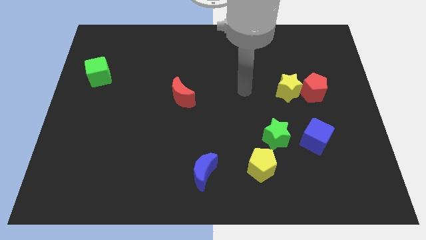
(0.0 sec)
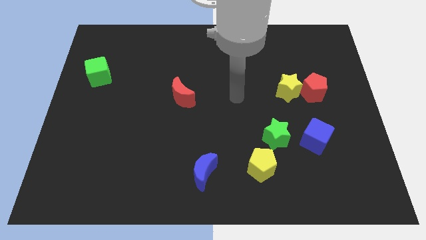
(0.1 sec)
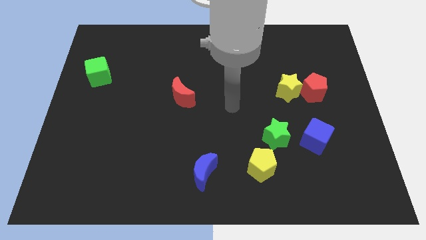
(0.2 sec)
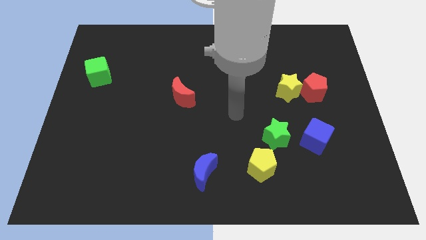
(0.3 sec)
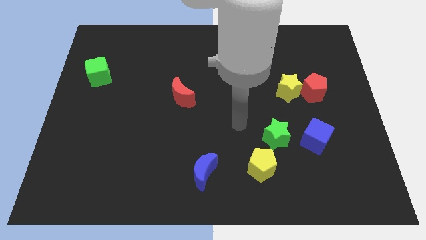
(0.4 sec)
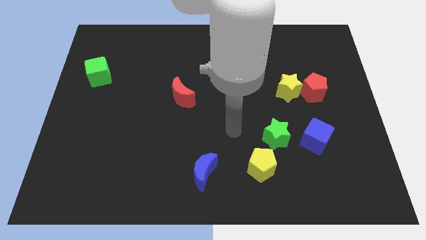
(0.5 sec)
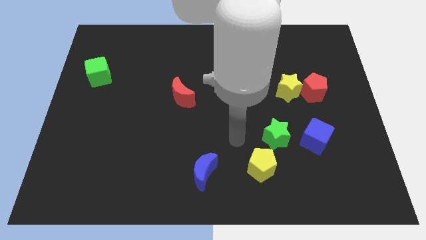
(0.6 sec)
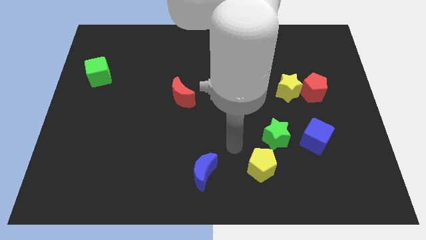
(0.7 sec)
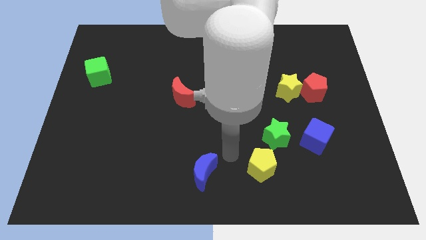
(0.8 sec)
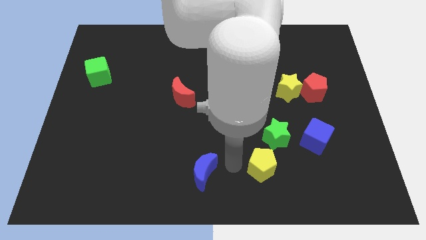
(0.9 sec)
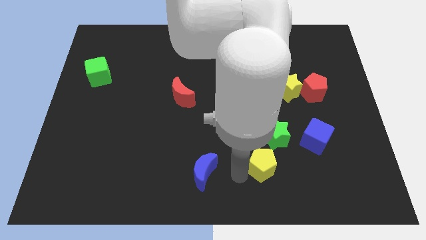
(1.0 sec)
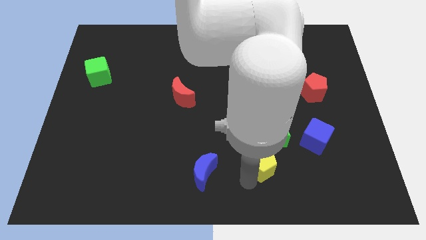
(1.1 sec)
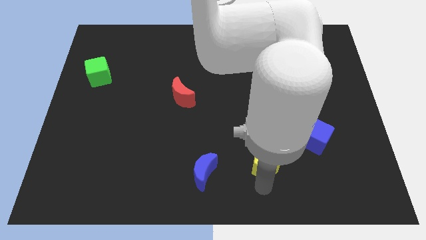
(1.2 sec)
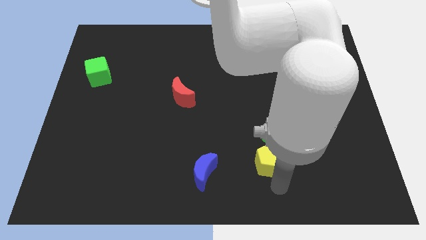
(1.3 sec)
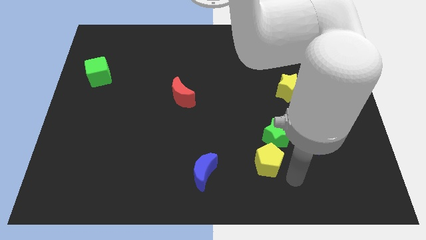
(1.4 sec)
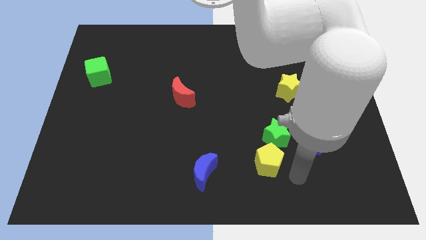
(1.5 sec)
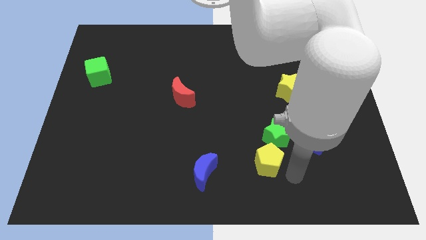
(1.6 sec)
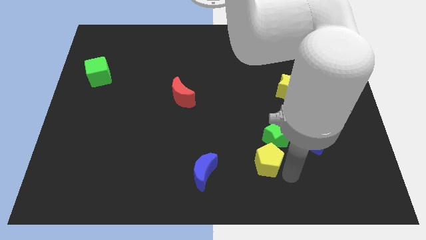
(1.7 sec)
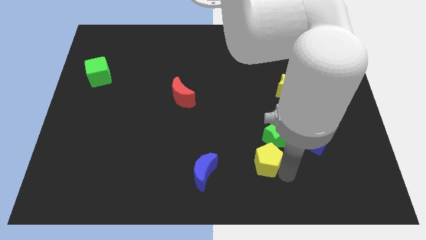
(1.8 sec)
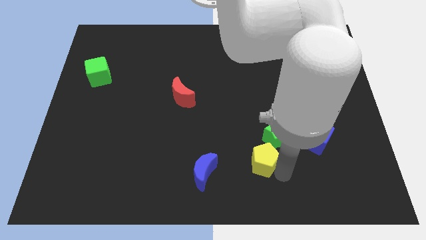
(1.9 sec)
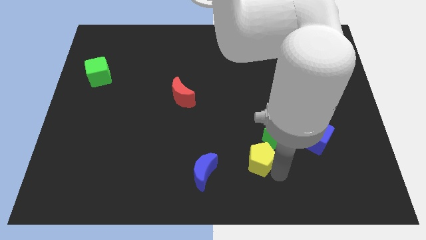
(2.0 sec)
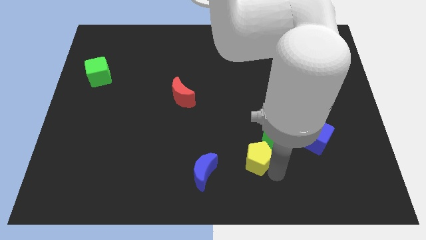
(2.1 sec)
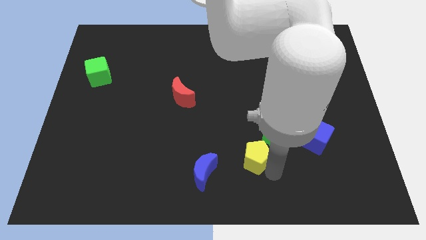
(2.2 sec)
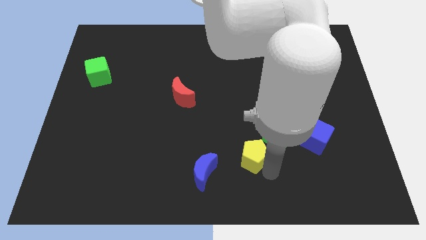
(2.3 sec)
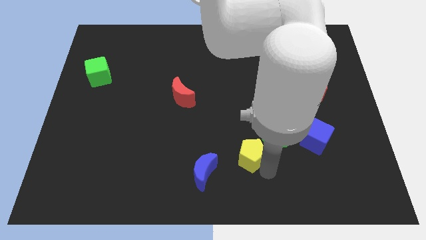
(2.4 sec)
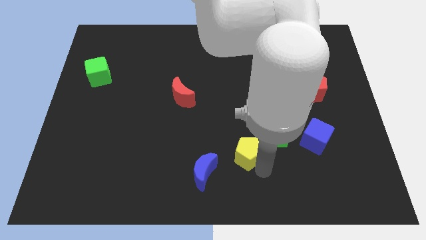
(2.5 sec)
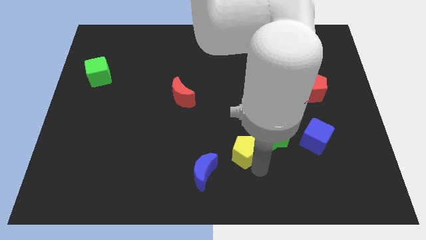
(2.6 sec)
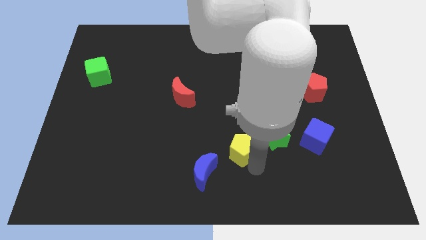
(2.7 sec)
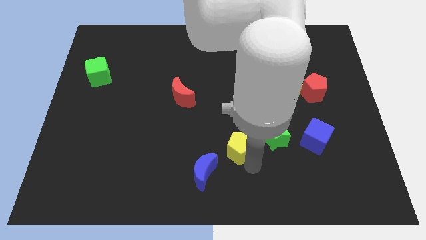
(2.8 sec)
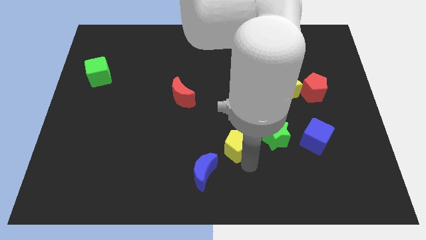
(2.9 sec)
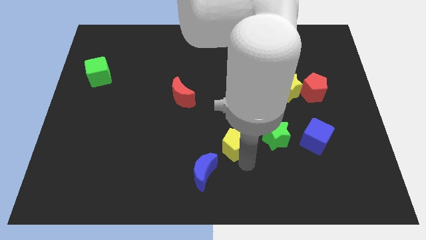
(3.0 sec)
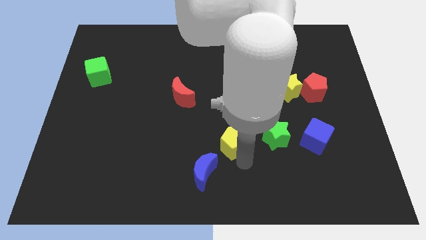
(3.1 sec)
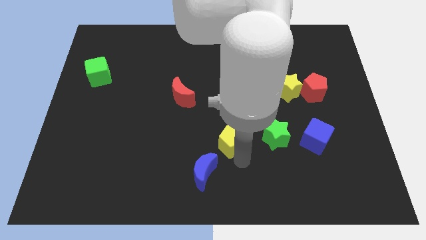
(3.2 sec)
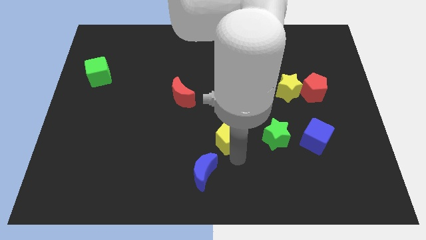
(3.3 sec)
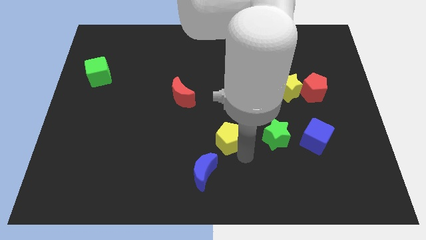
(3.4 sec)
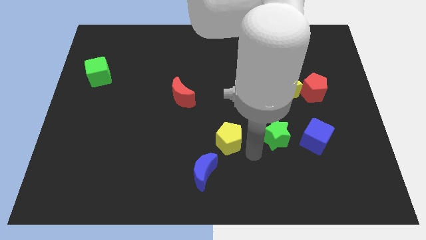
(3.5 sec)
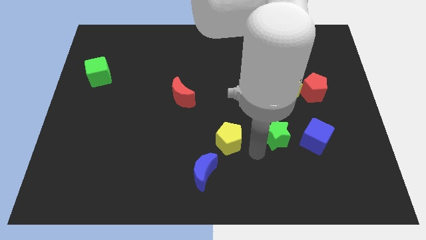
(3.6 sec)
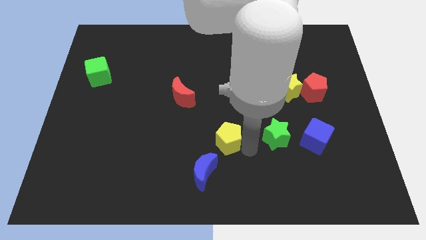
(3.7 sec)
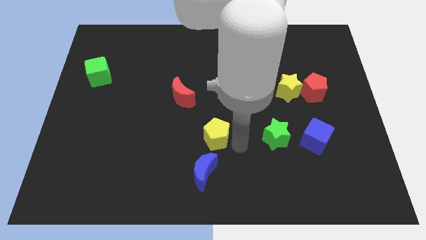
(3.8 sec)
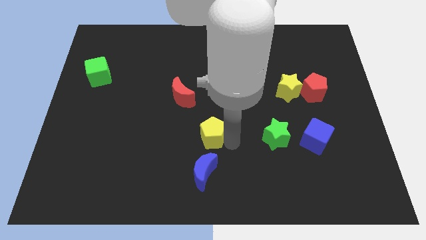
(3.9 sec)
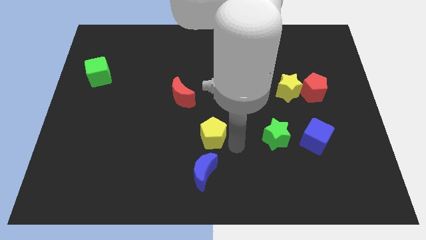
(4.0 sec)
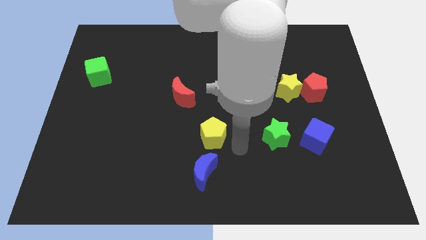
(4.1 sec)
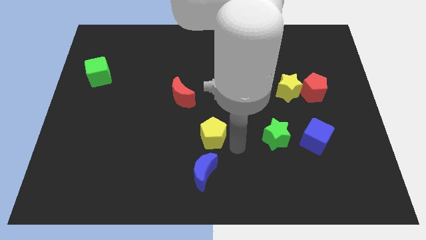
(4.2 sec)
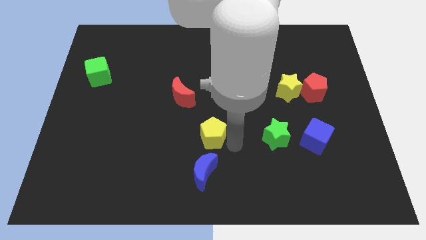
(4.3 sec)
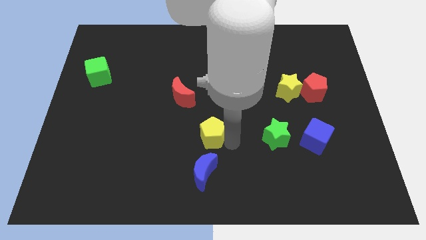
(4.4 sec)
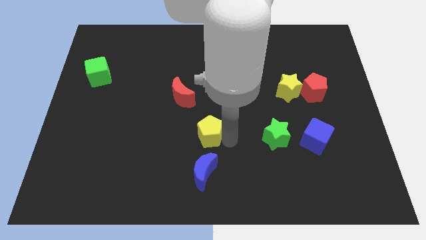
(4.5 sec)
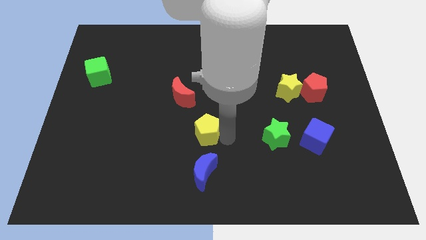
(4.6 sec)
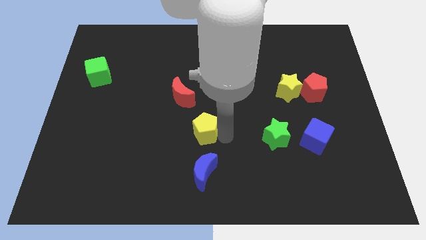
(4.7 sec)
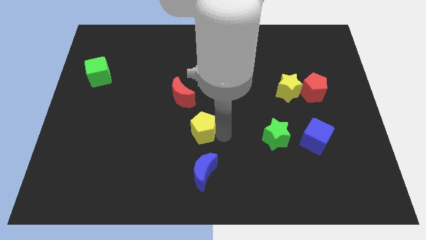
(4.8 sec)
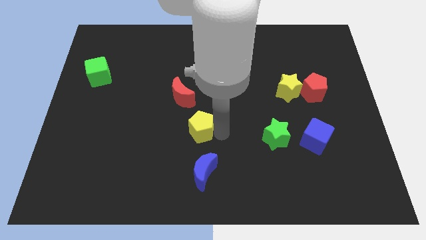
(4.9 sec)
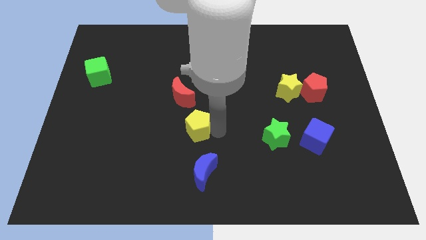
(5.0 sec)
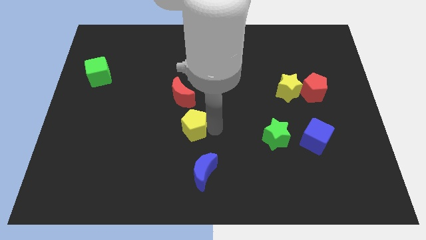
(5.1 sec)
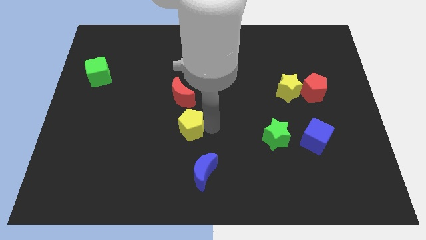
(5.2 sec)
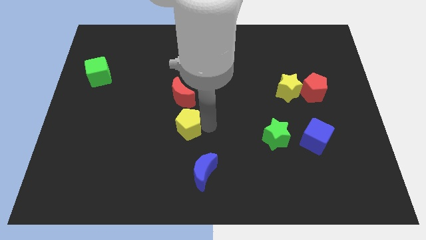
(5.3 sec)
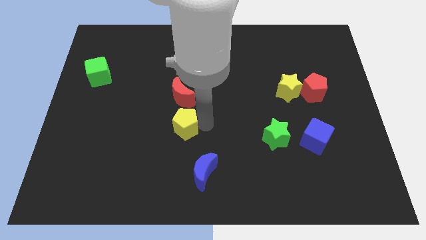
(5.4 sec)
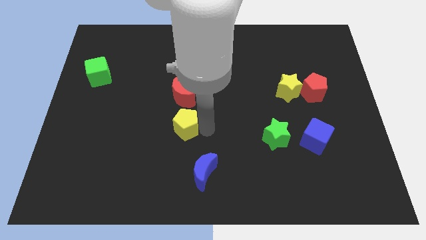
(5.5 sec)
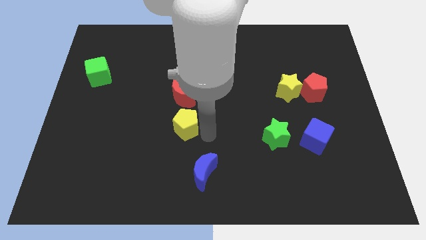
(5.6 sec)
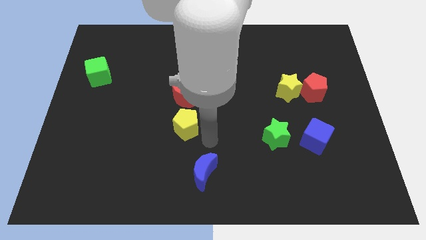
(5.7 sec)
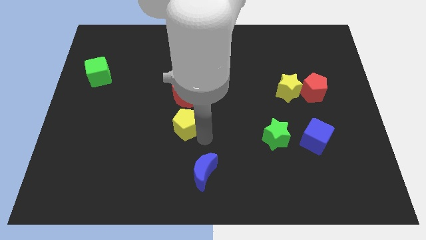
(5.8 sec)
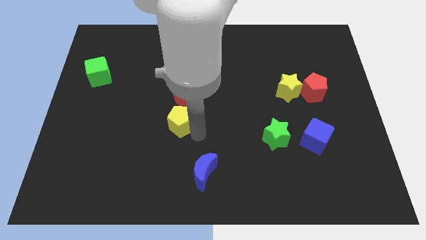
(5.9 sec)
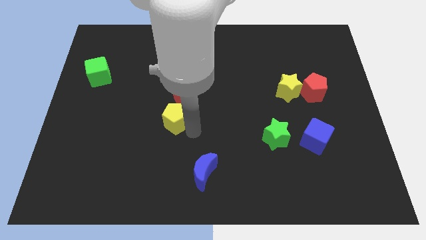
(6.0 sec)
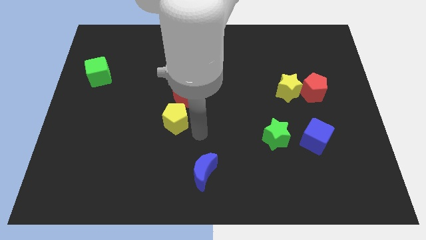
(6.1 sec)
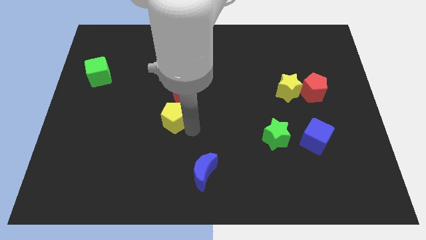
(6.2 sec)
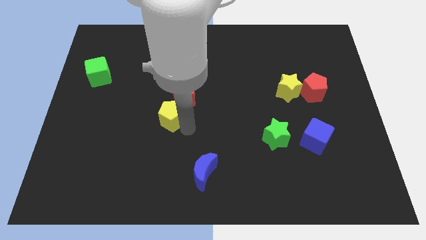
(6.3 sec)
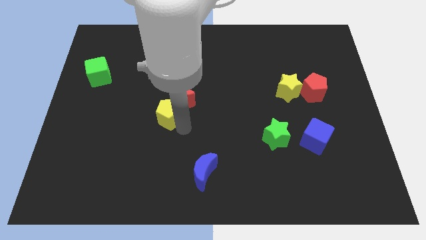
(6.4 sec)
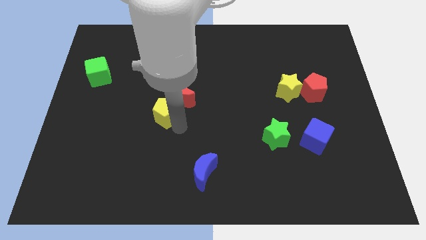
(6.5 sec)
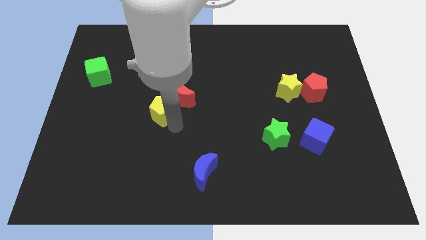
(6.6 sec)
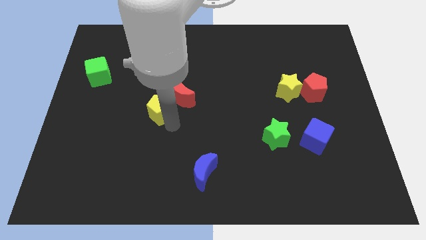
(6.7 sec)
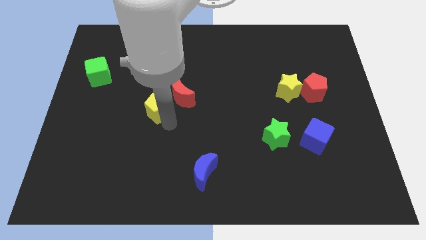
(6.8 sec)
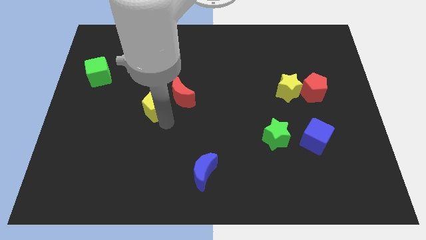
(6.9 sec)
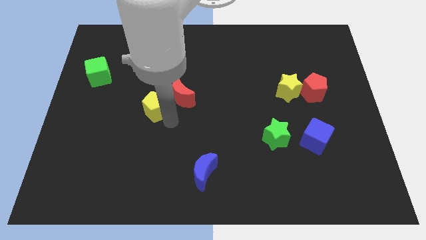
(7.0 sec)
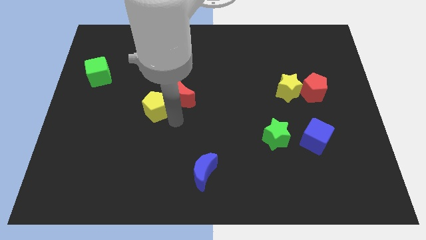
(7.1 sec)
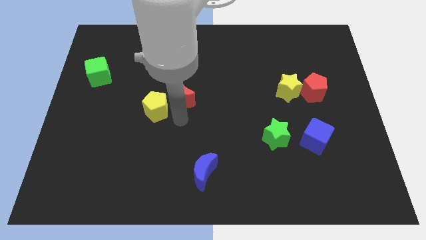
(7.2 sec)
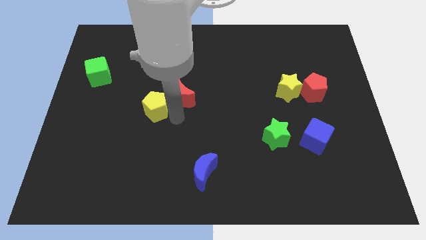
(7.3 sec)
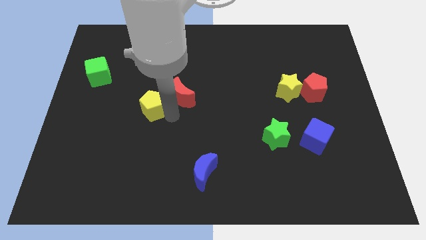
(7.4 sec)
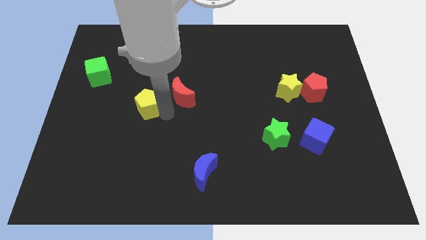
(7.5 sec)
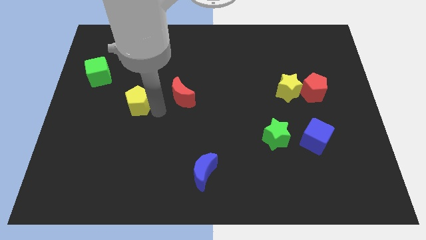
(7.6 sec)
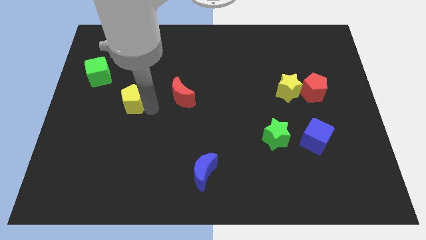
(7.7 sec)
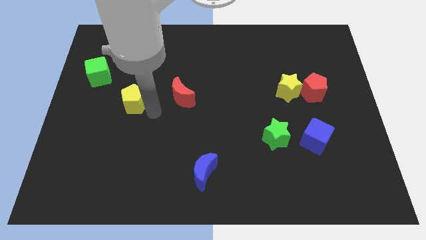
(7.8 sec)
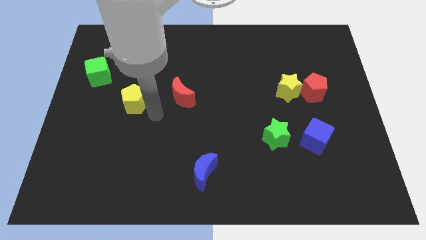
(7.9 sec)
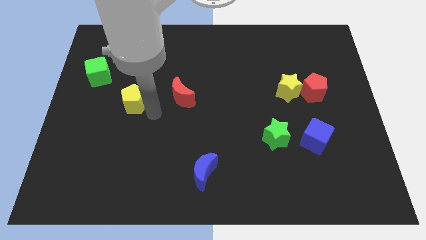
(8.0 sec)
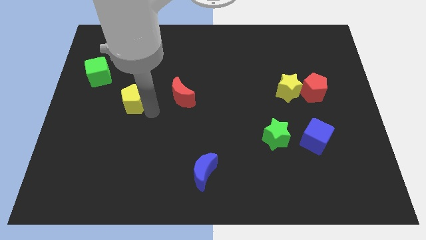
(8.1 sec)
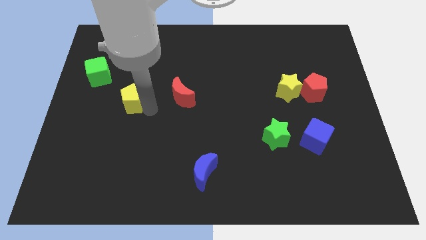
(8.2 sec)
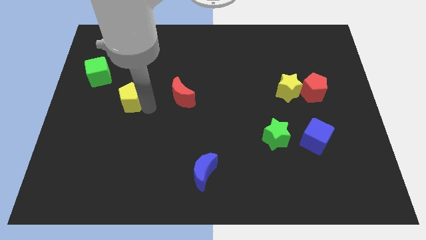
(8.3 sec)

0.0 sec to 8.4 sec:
slide the yellow pentagon to the bottom right of the green cube
